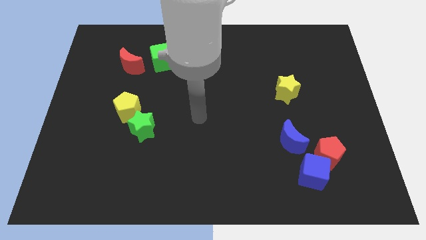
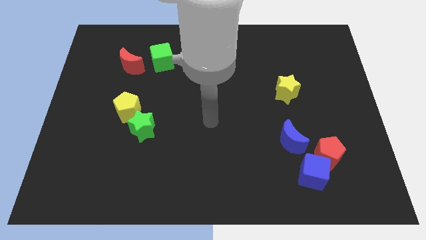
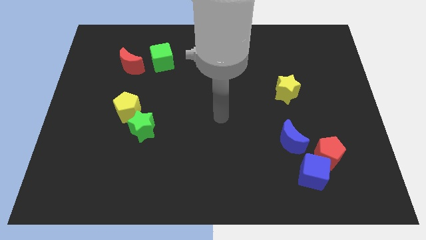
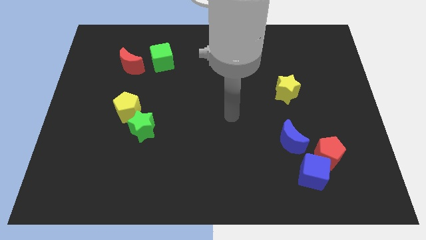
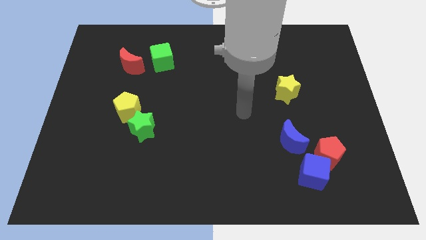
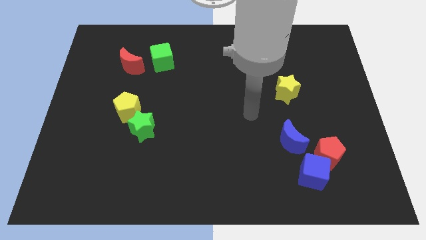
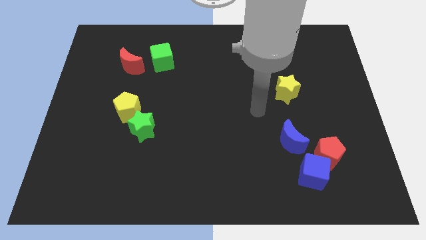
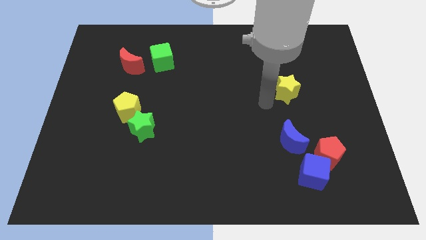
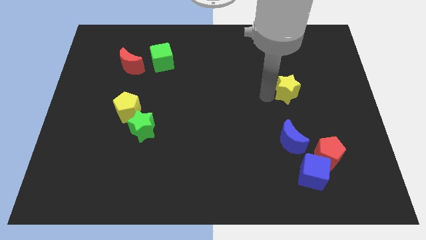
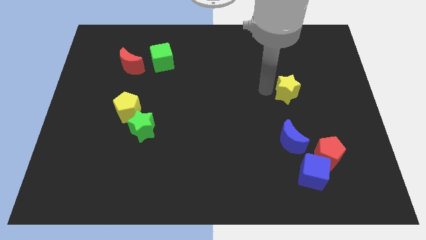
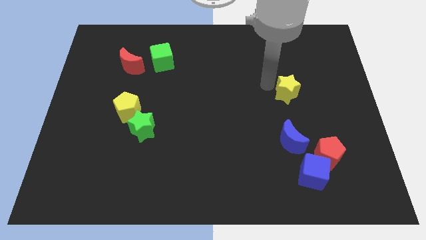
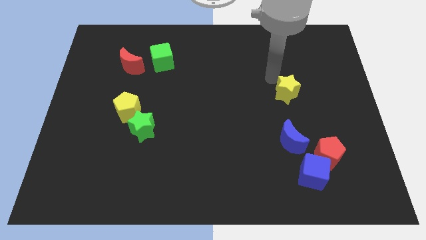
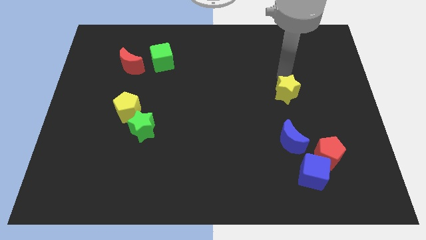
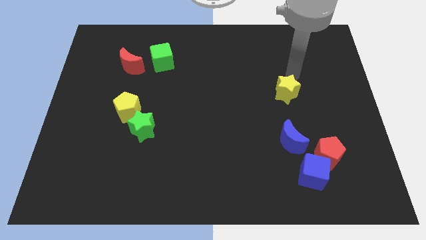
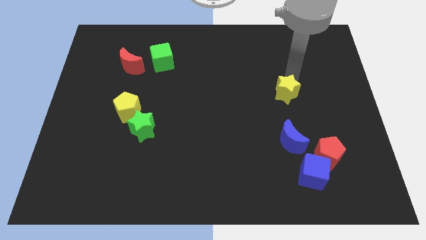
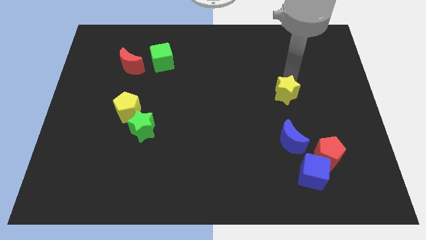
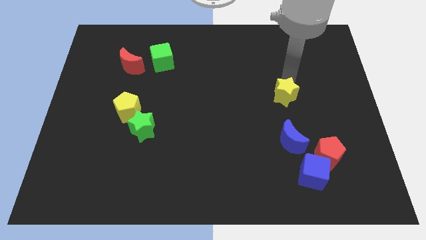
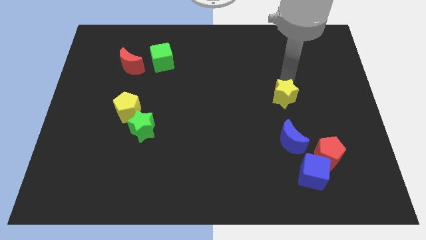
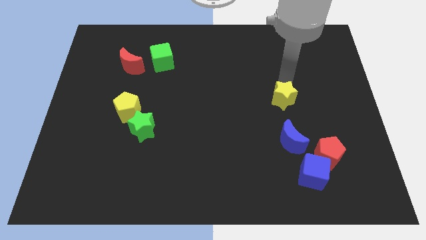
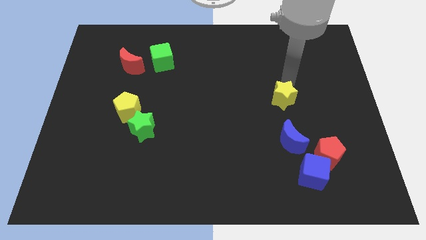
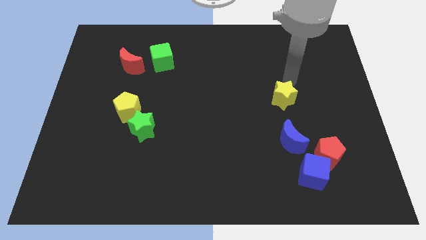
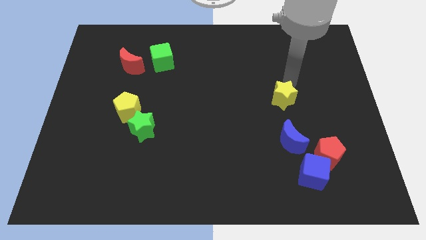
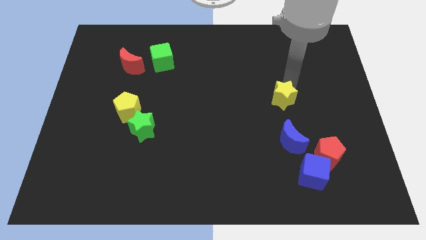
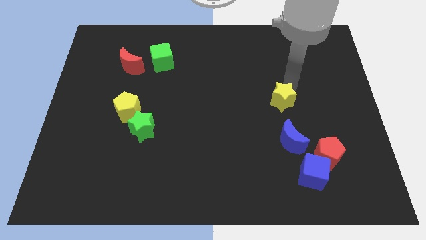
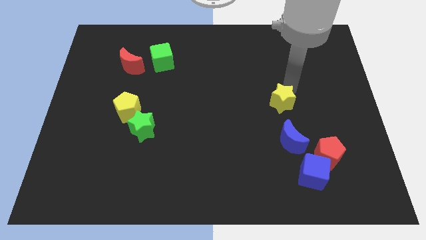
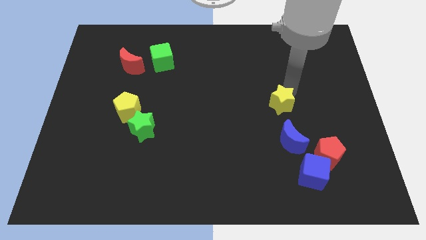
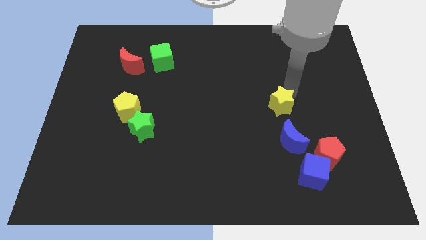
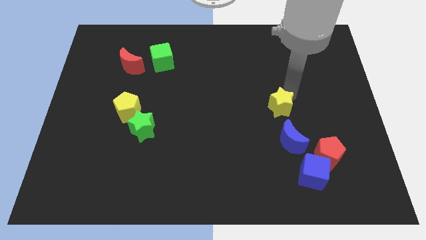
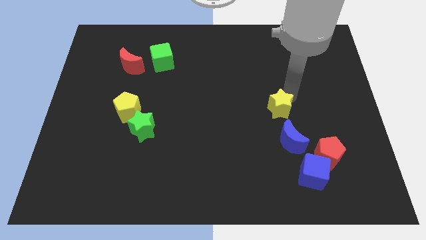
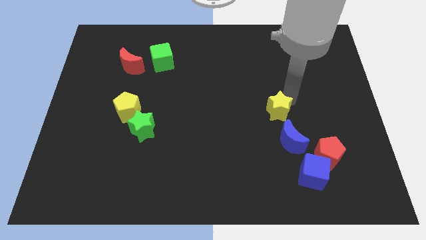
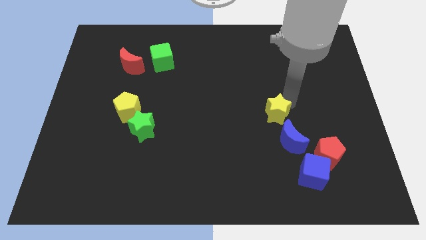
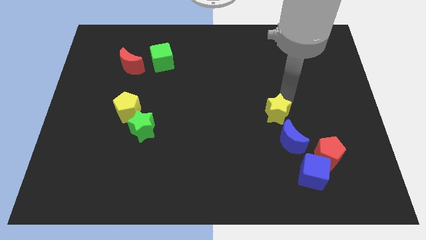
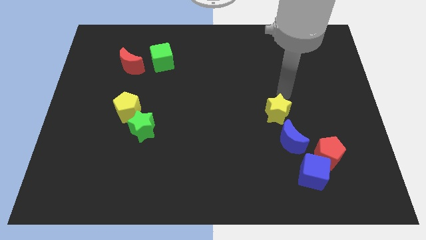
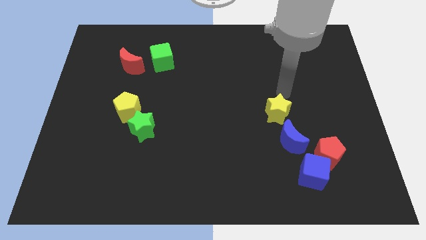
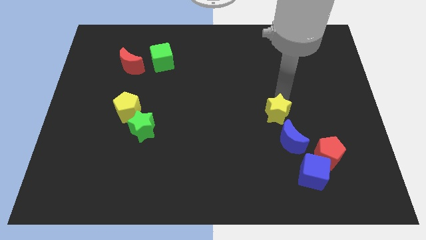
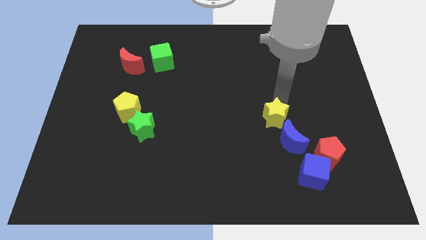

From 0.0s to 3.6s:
slightly push the yellow star downwards

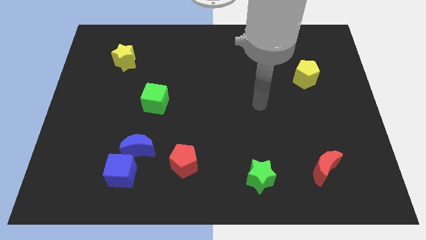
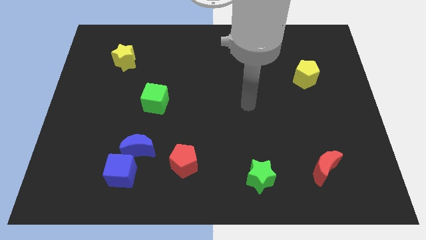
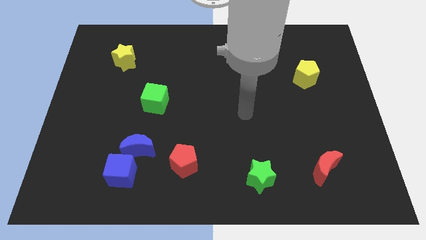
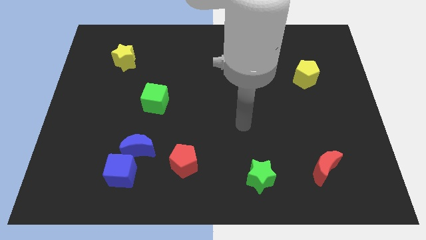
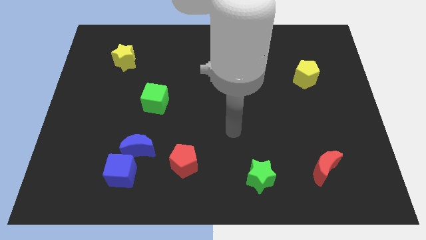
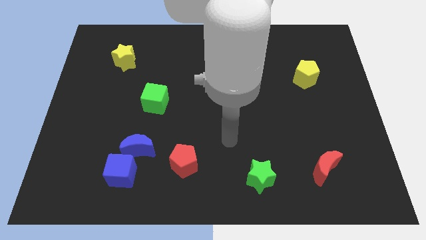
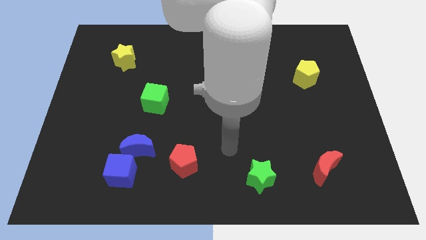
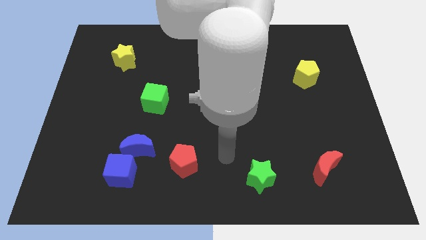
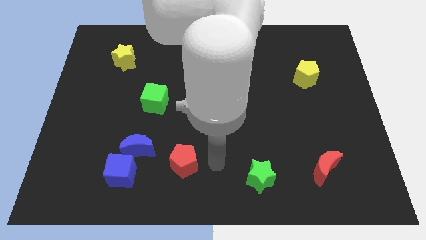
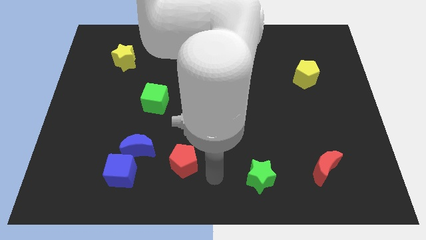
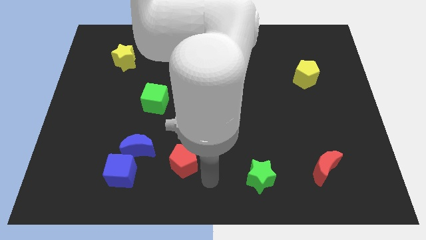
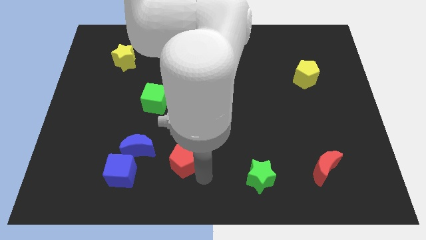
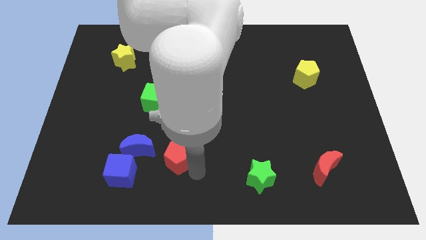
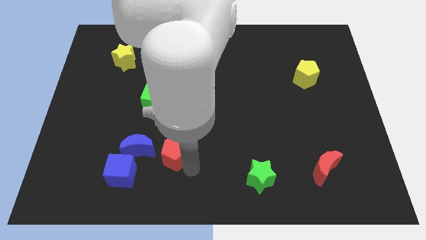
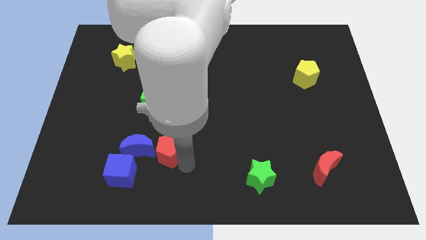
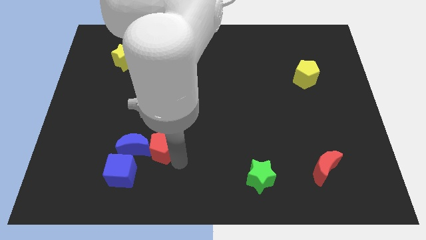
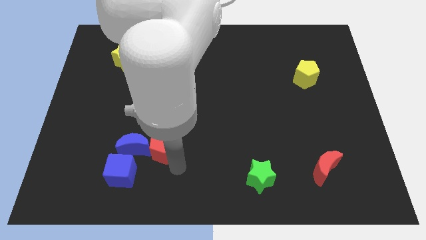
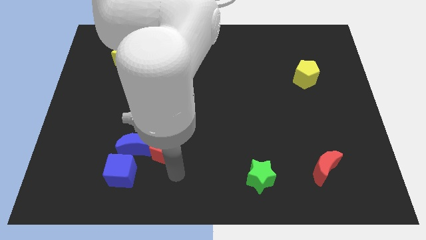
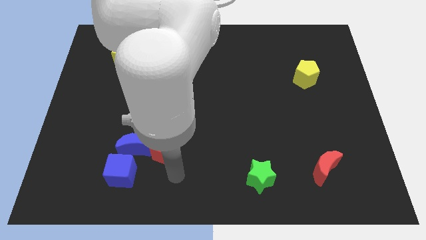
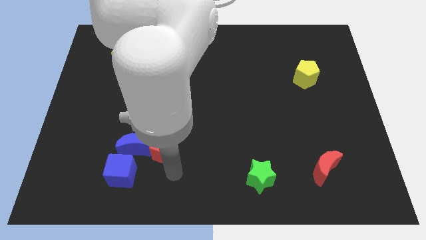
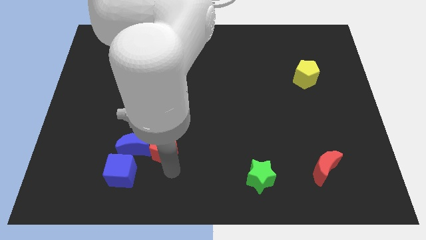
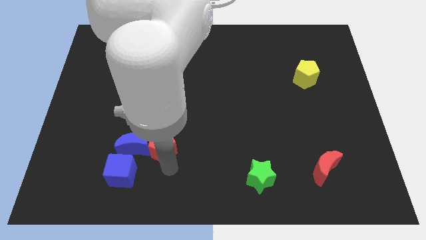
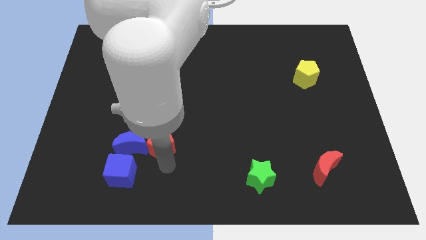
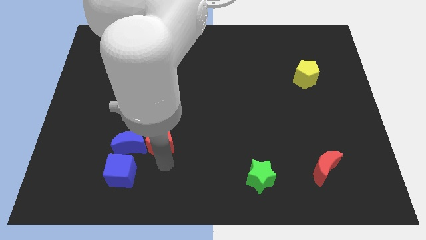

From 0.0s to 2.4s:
slightly move the red pentagon upwards and then to the left

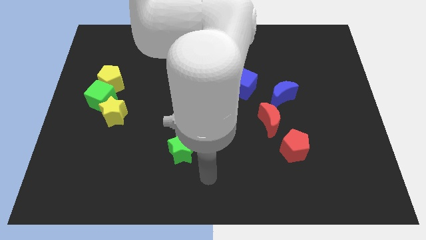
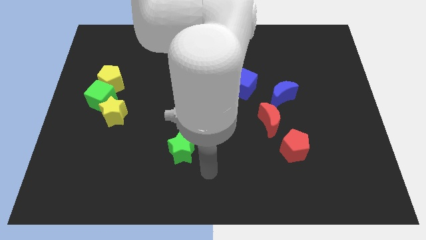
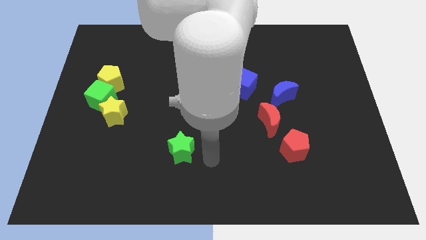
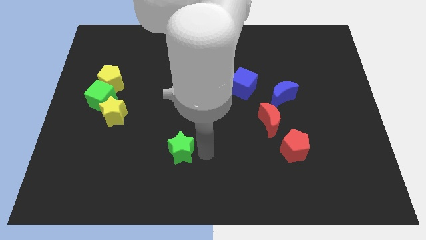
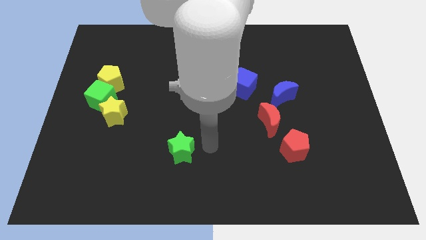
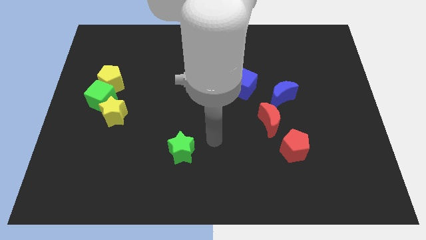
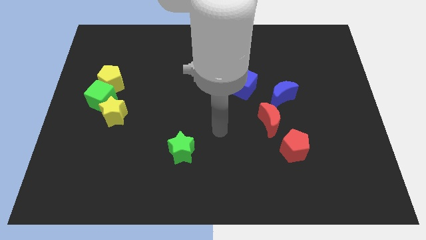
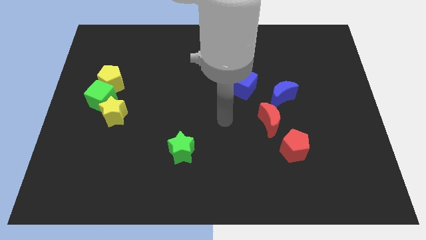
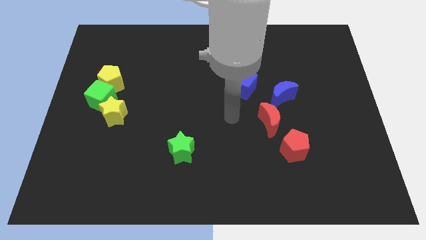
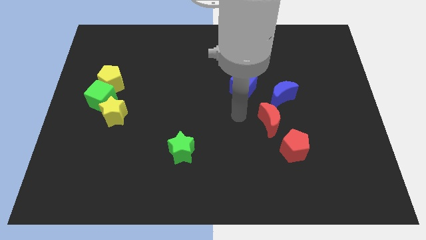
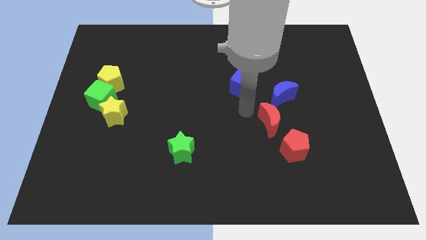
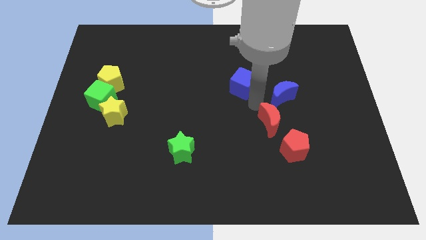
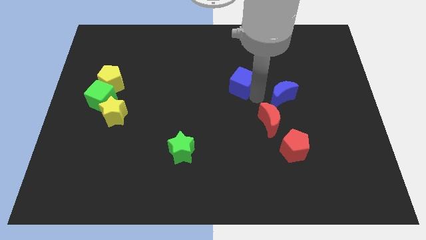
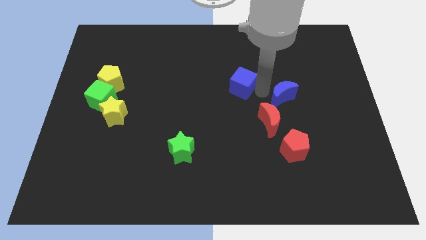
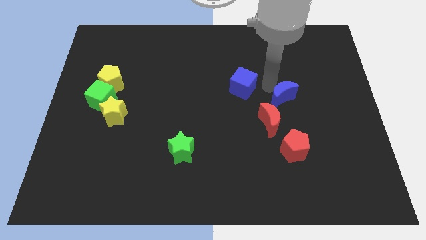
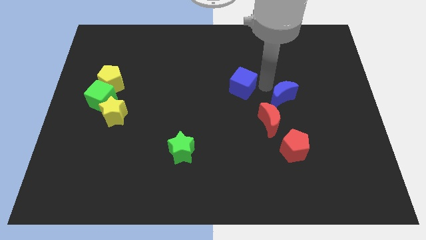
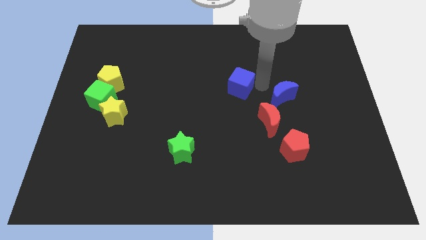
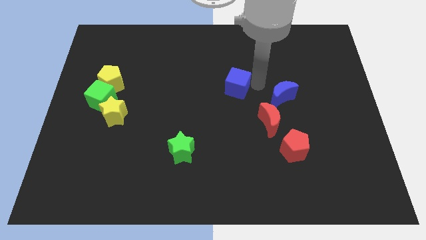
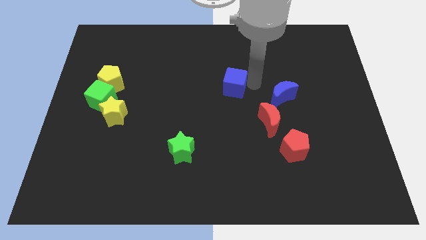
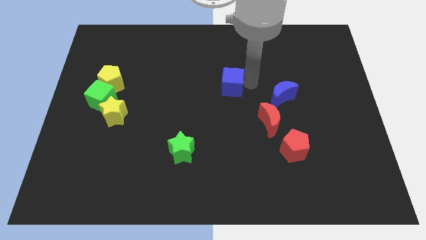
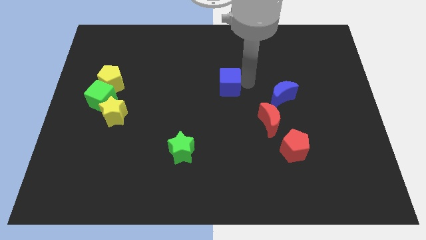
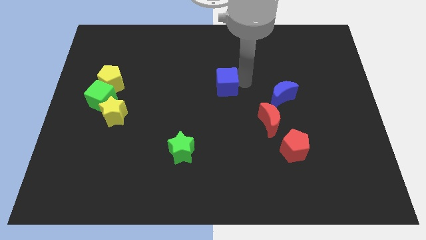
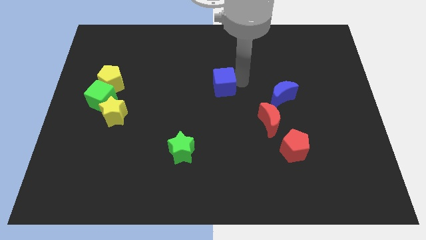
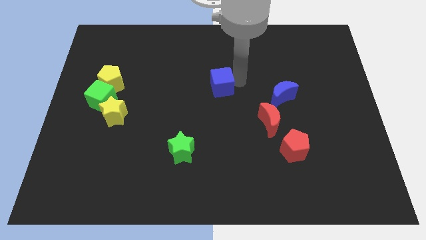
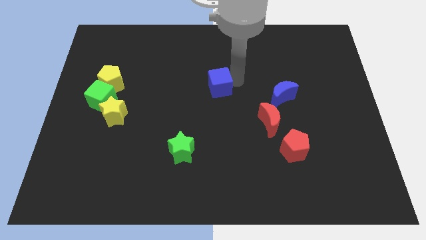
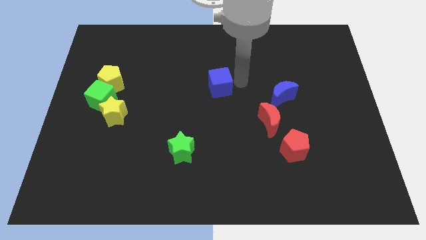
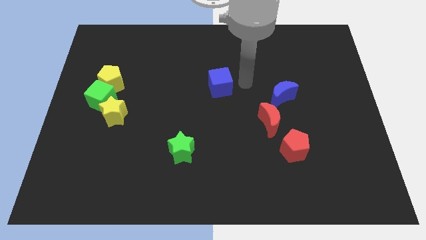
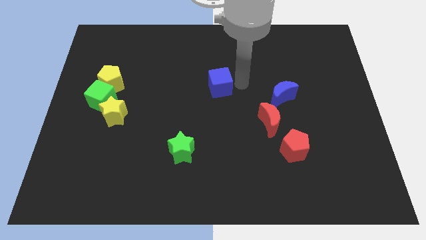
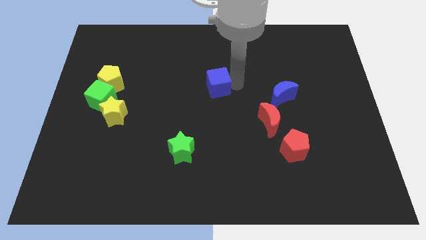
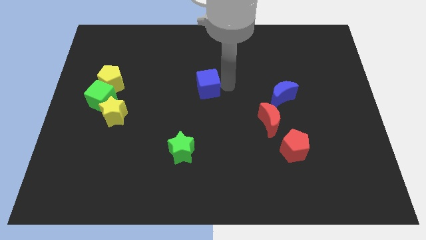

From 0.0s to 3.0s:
push the blue cube to the left slightly
